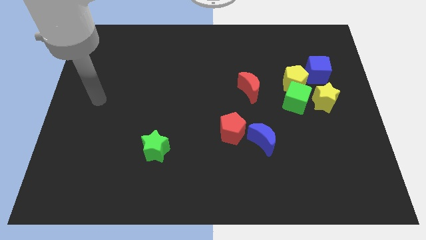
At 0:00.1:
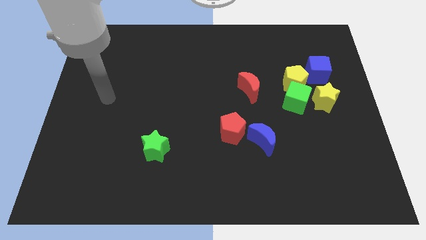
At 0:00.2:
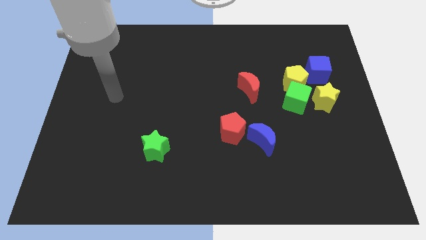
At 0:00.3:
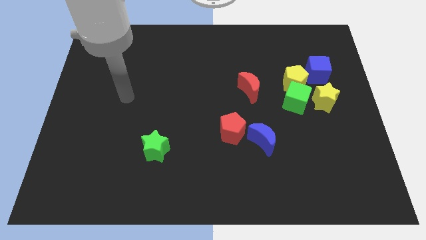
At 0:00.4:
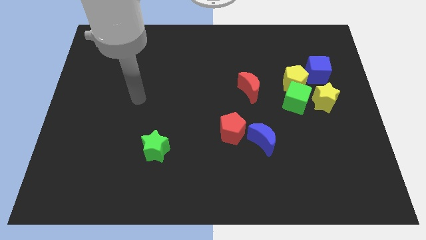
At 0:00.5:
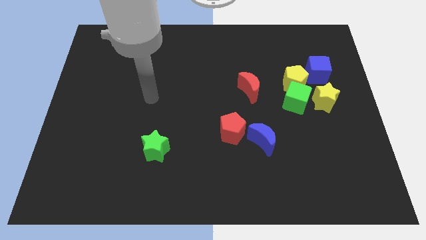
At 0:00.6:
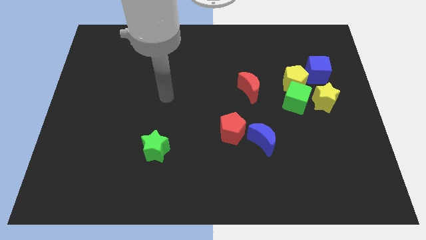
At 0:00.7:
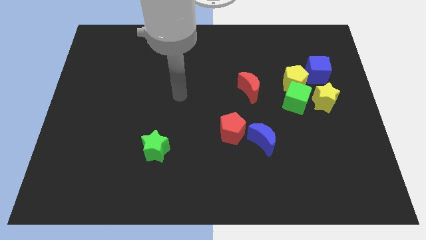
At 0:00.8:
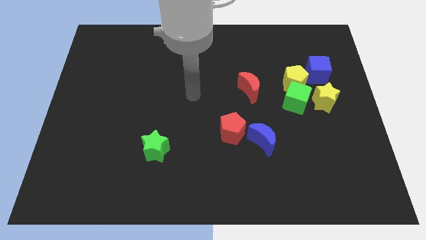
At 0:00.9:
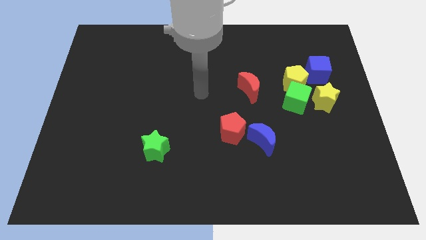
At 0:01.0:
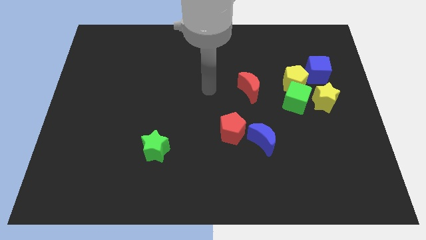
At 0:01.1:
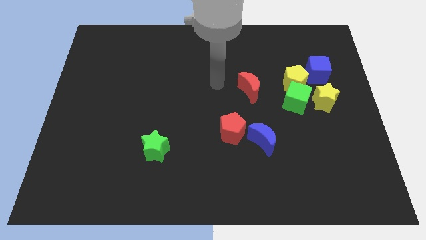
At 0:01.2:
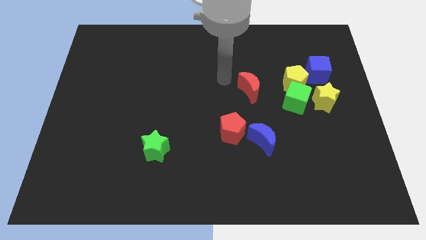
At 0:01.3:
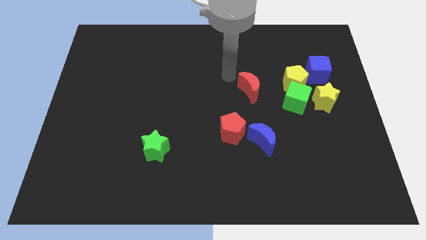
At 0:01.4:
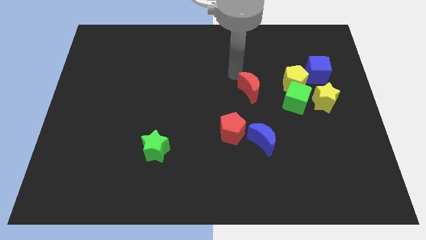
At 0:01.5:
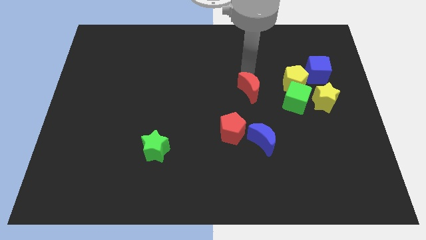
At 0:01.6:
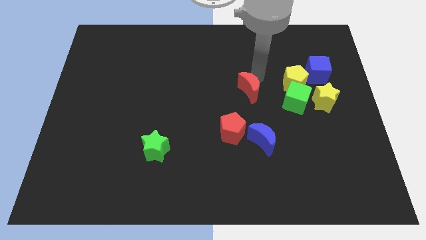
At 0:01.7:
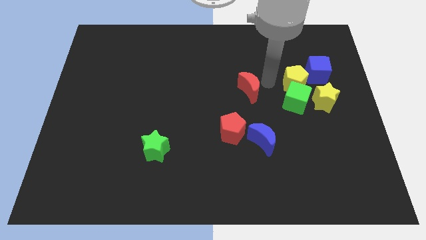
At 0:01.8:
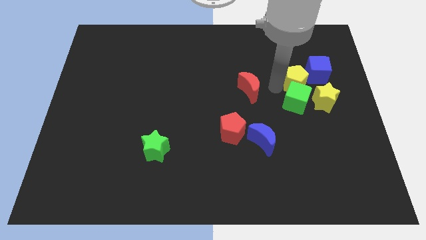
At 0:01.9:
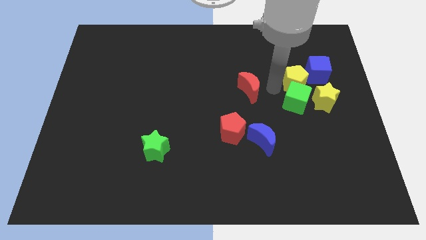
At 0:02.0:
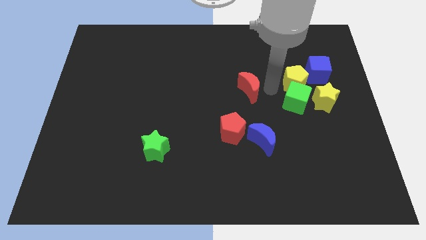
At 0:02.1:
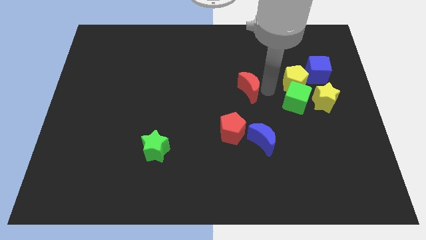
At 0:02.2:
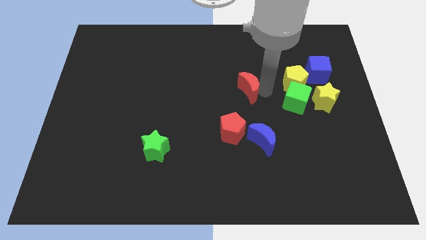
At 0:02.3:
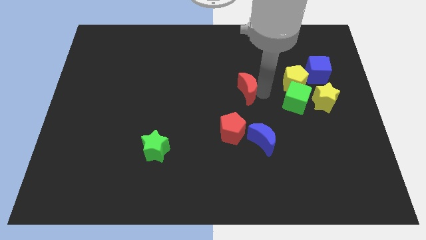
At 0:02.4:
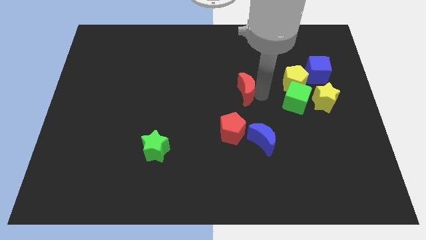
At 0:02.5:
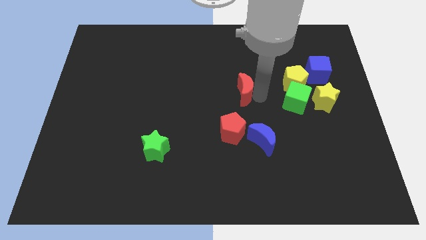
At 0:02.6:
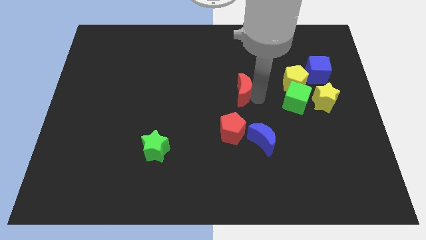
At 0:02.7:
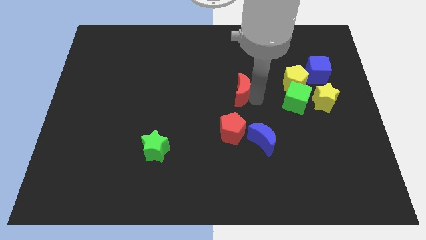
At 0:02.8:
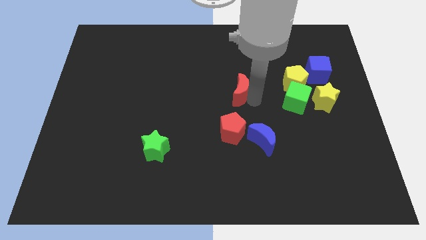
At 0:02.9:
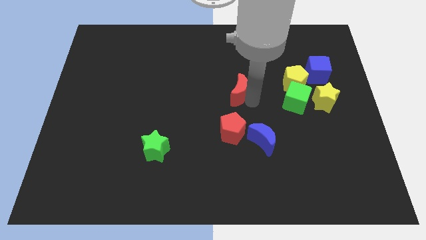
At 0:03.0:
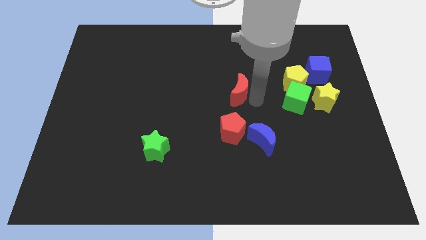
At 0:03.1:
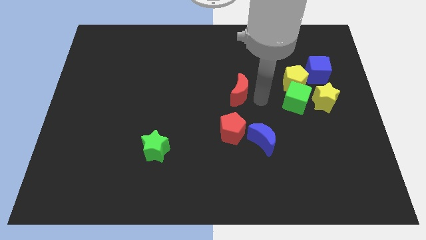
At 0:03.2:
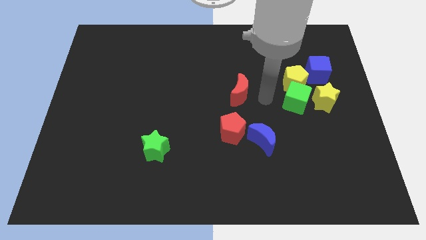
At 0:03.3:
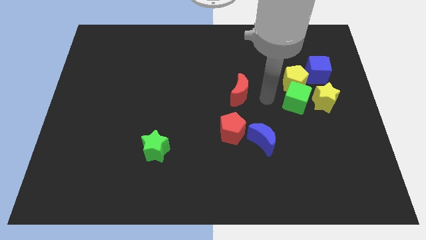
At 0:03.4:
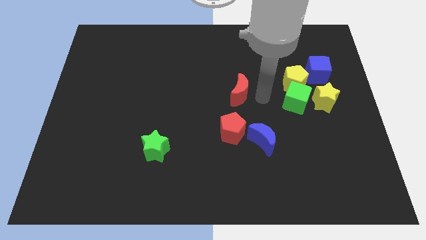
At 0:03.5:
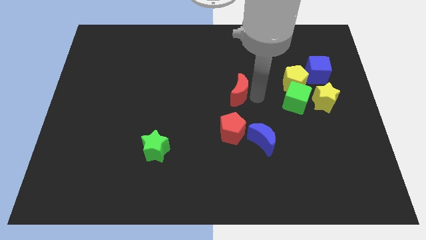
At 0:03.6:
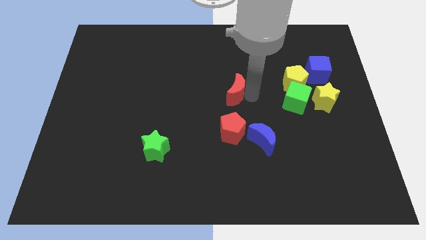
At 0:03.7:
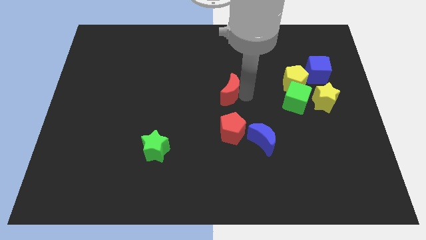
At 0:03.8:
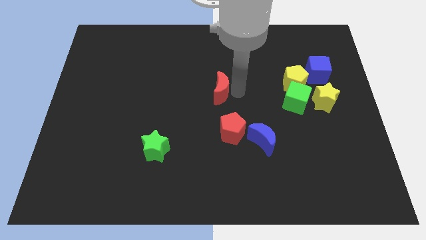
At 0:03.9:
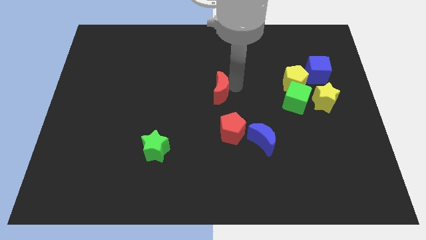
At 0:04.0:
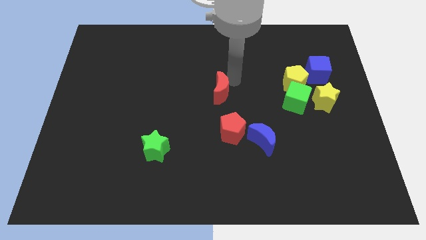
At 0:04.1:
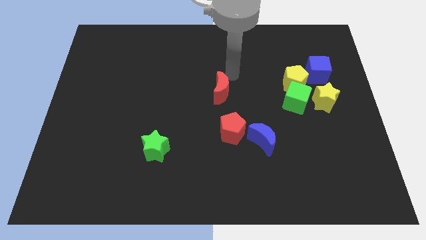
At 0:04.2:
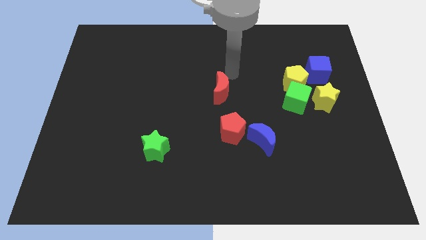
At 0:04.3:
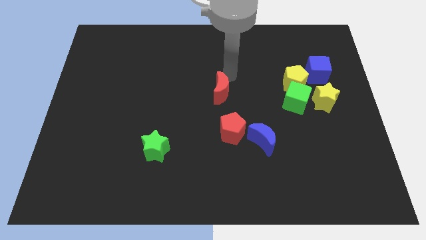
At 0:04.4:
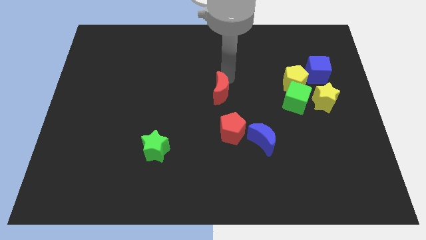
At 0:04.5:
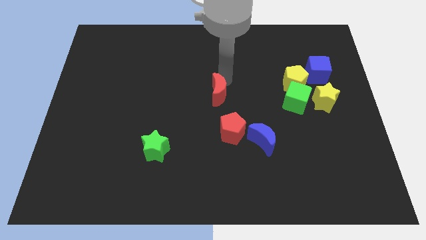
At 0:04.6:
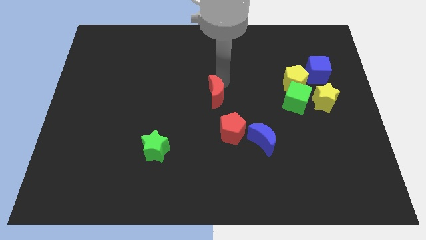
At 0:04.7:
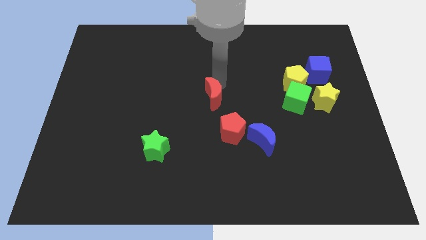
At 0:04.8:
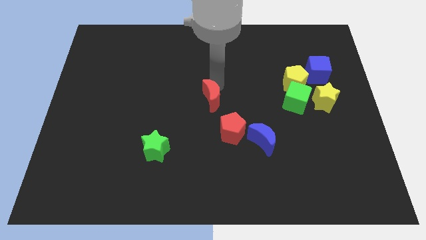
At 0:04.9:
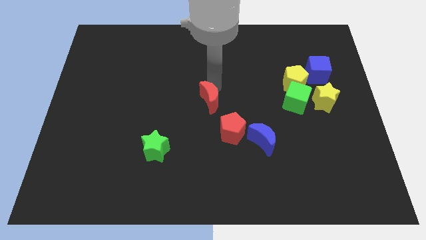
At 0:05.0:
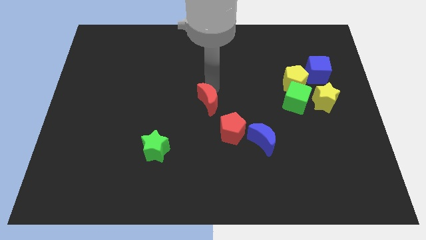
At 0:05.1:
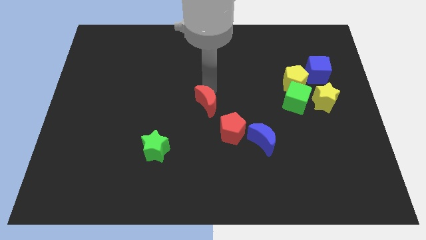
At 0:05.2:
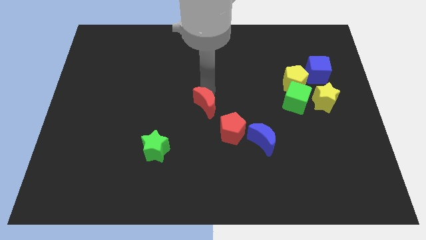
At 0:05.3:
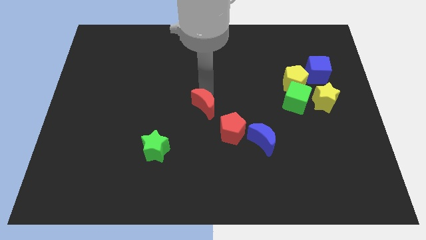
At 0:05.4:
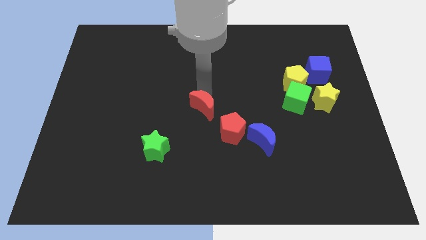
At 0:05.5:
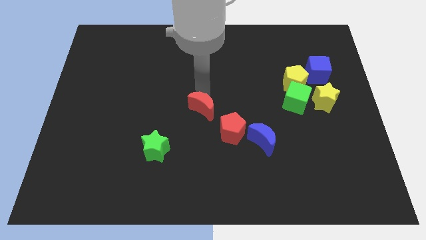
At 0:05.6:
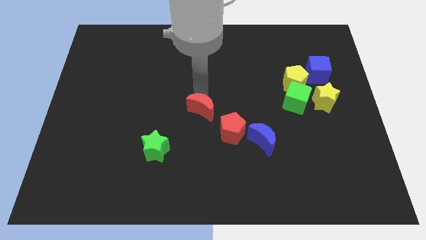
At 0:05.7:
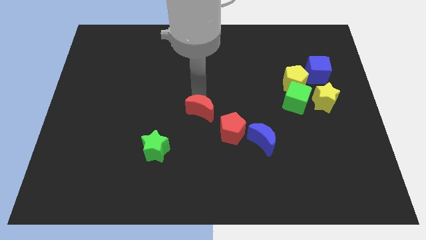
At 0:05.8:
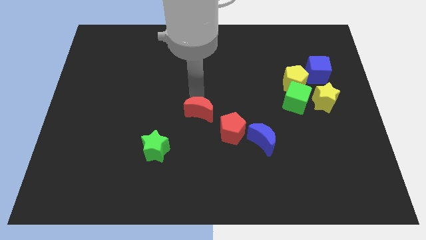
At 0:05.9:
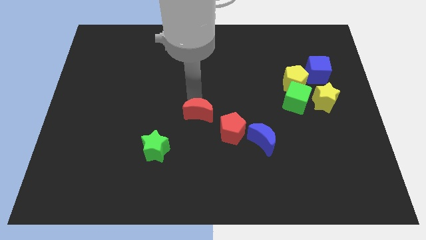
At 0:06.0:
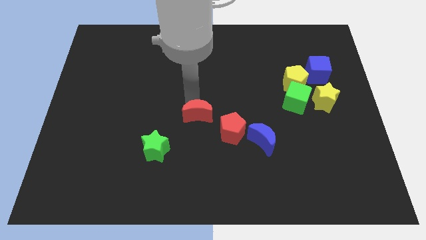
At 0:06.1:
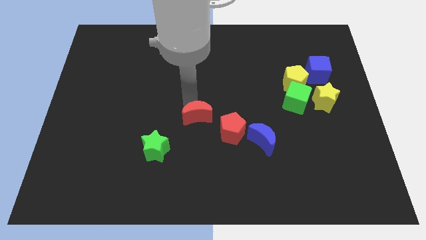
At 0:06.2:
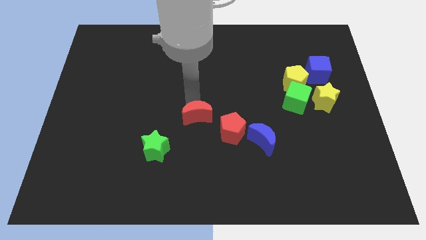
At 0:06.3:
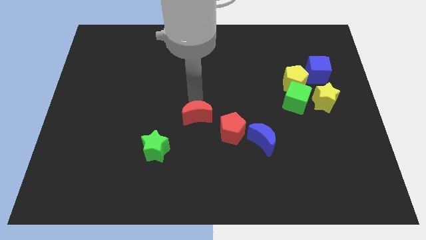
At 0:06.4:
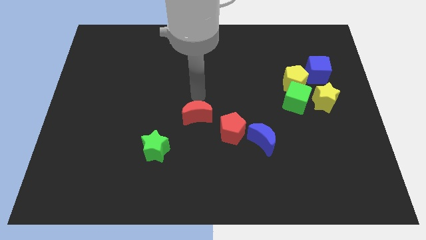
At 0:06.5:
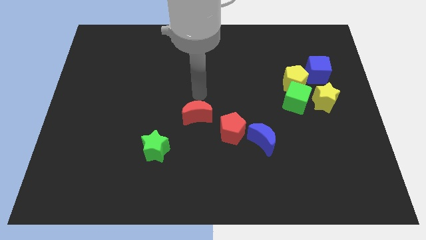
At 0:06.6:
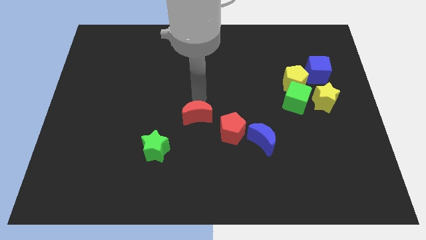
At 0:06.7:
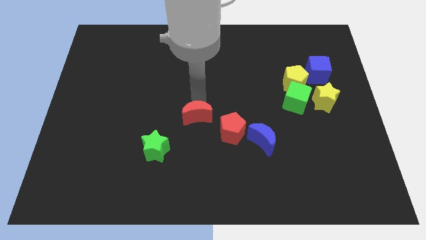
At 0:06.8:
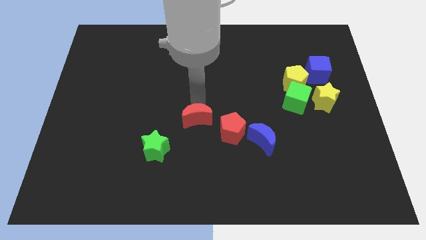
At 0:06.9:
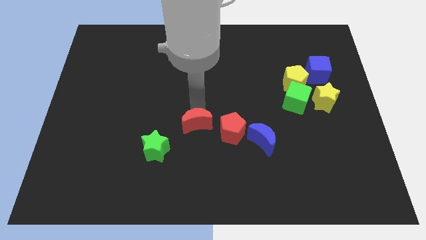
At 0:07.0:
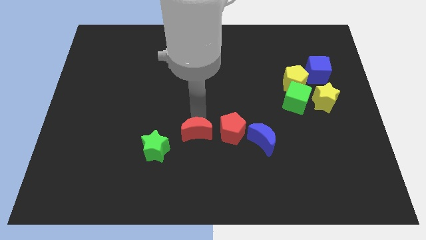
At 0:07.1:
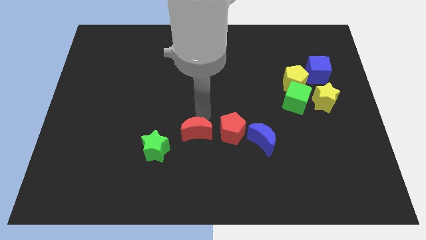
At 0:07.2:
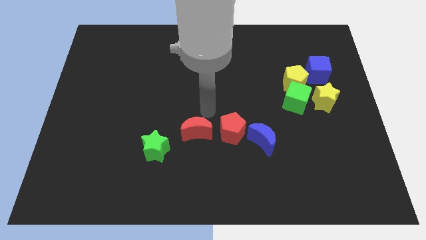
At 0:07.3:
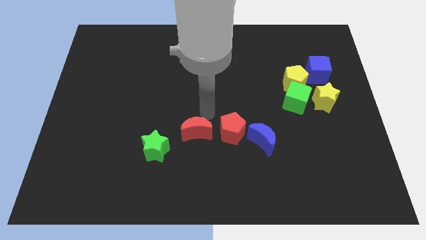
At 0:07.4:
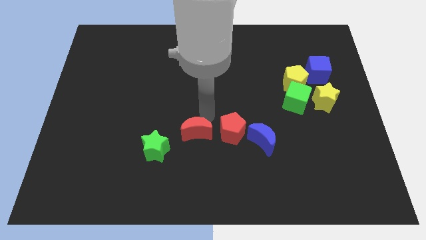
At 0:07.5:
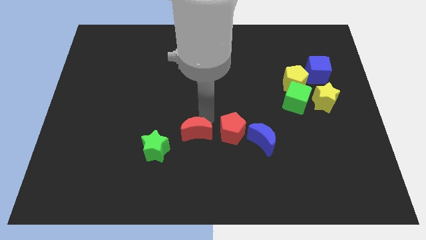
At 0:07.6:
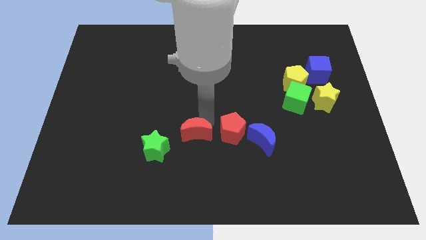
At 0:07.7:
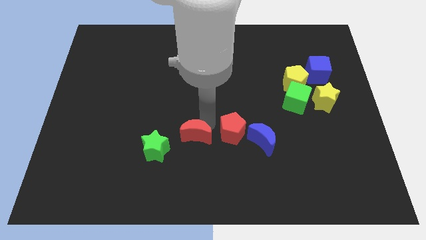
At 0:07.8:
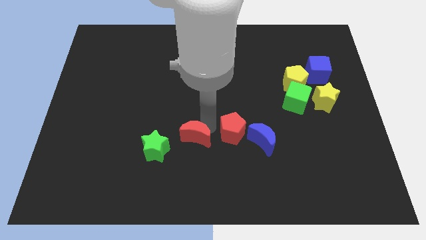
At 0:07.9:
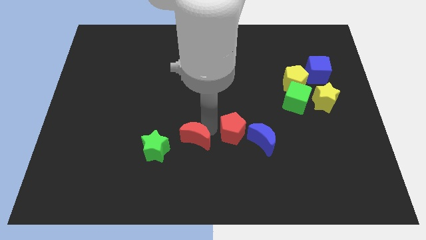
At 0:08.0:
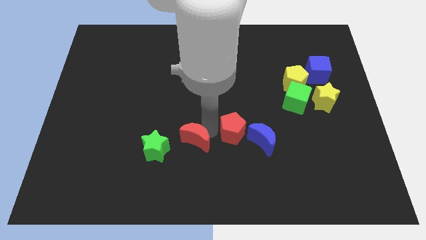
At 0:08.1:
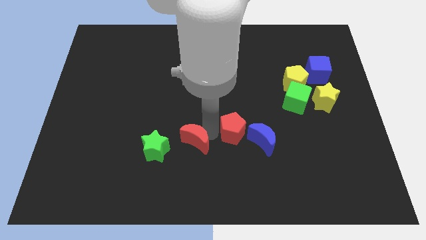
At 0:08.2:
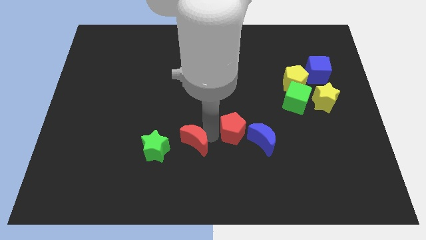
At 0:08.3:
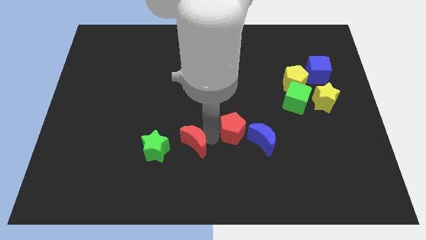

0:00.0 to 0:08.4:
slide the red moon diagonally downwards and left
